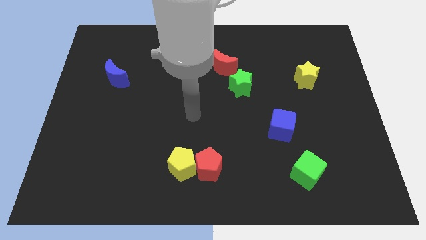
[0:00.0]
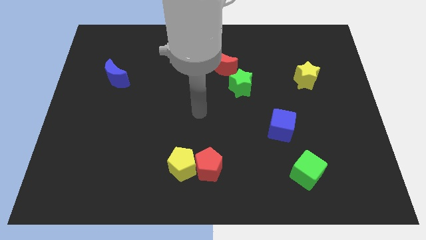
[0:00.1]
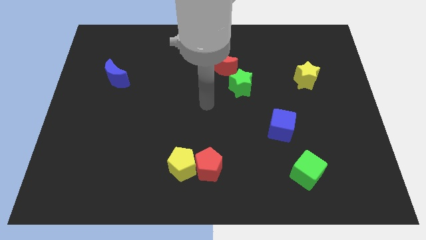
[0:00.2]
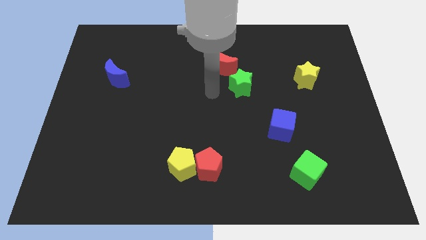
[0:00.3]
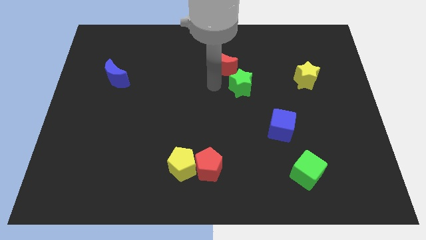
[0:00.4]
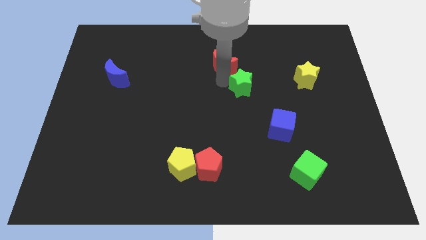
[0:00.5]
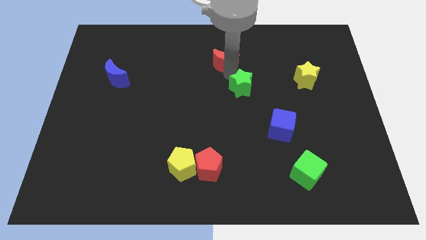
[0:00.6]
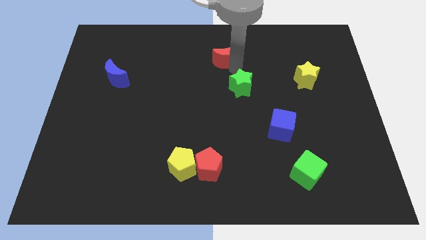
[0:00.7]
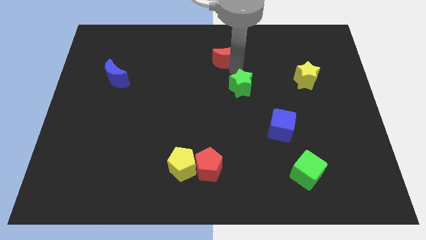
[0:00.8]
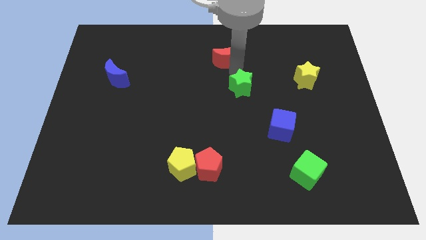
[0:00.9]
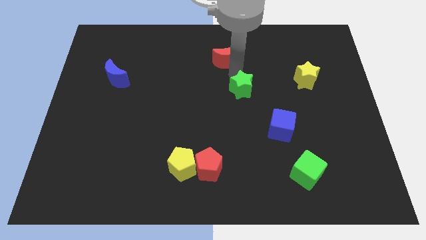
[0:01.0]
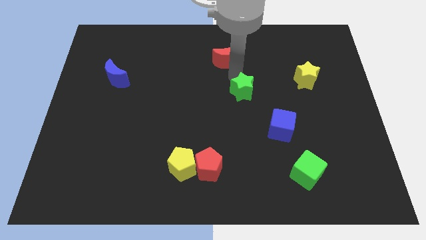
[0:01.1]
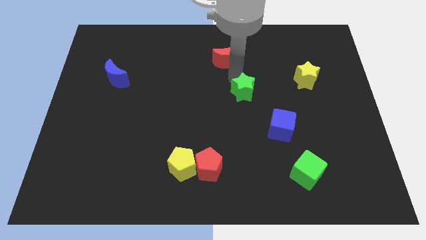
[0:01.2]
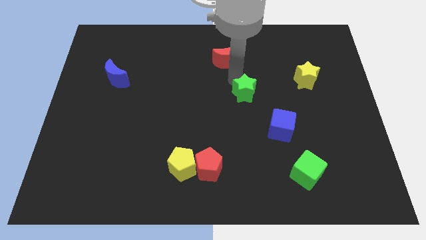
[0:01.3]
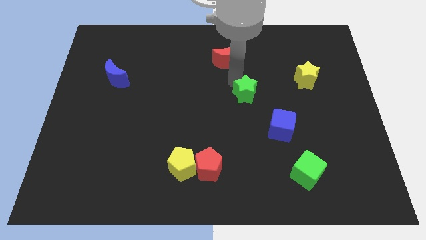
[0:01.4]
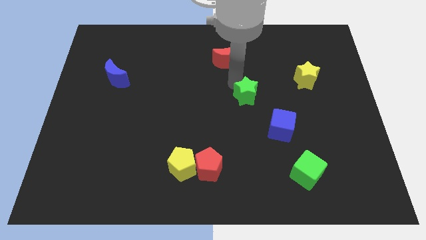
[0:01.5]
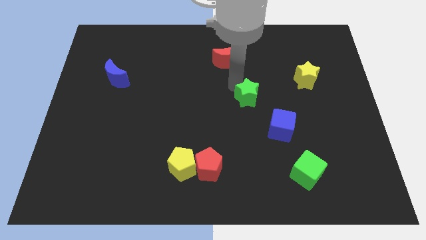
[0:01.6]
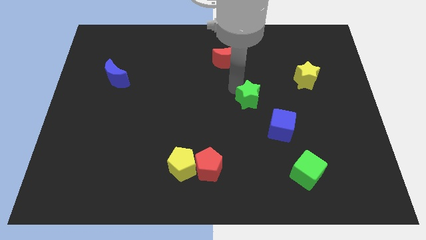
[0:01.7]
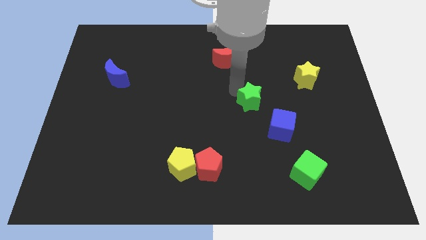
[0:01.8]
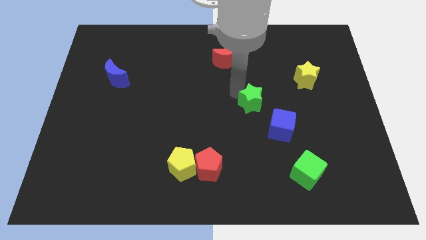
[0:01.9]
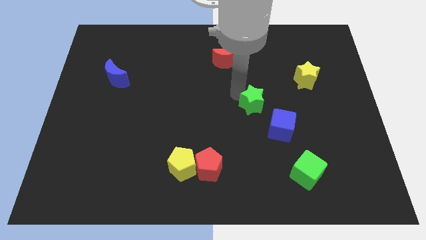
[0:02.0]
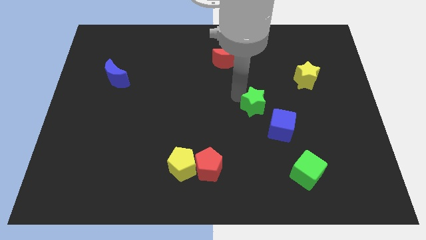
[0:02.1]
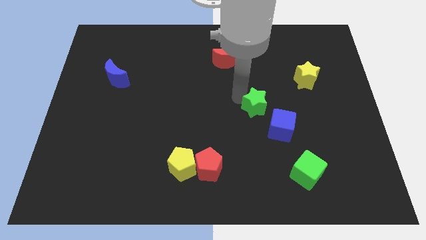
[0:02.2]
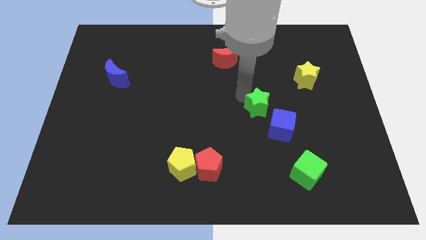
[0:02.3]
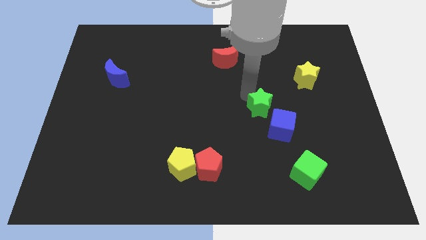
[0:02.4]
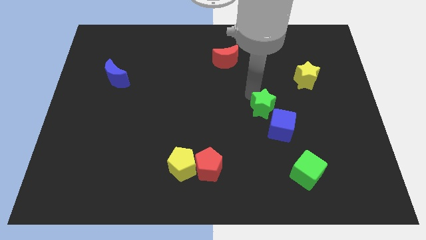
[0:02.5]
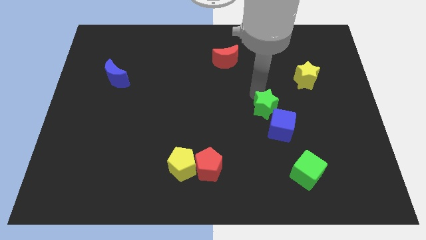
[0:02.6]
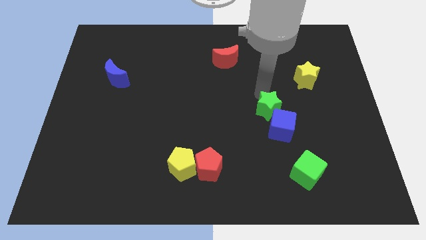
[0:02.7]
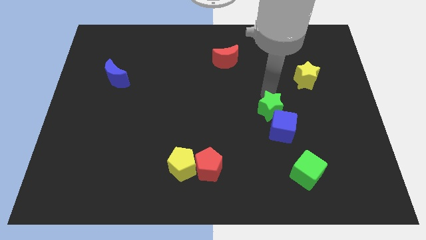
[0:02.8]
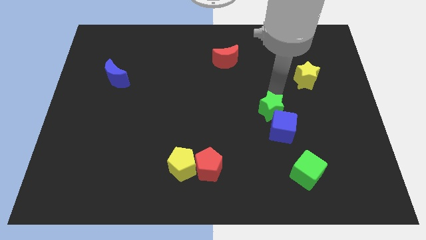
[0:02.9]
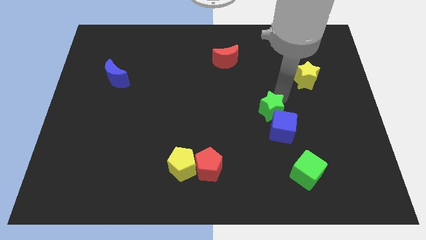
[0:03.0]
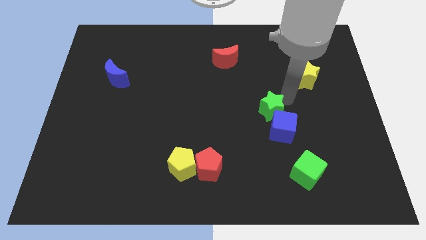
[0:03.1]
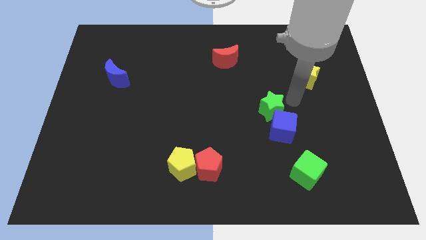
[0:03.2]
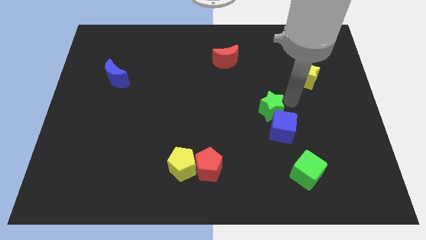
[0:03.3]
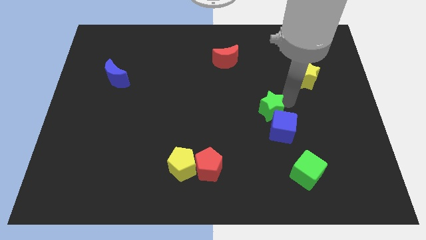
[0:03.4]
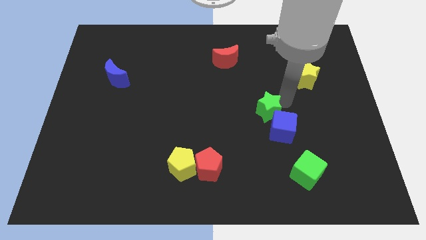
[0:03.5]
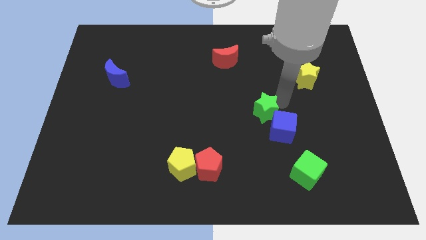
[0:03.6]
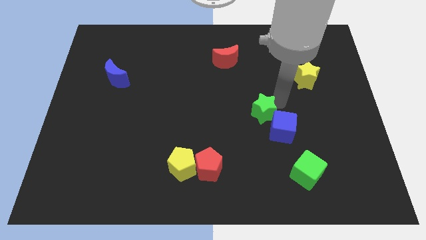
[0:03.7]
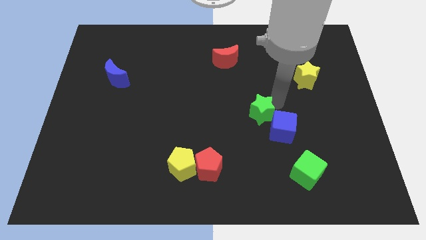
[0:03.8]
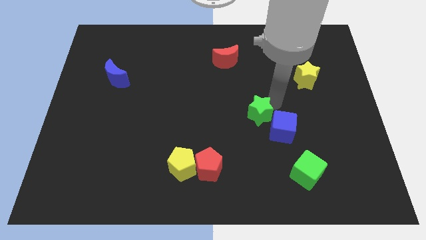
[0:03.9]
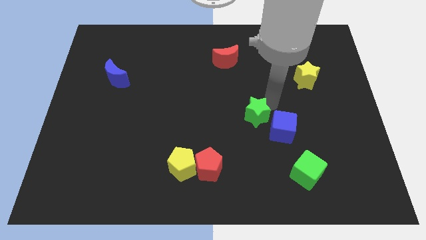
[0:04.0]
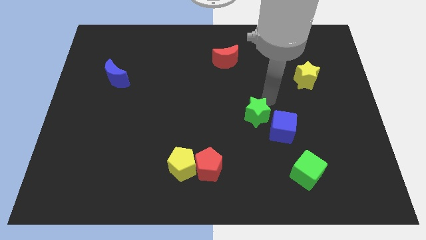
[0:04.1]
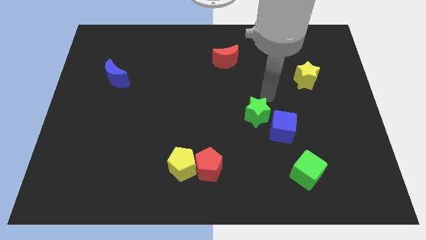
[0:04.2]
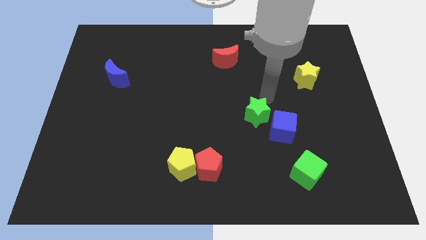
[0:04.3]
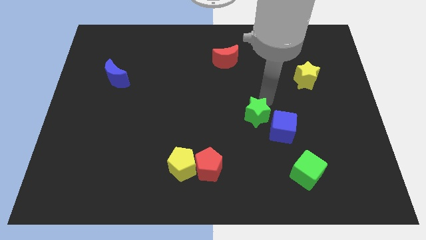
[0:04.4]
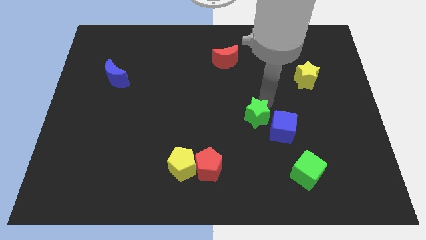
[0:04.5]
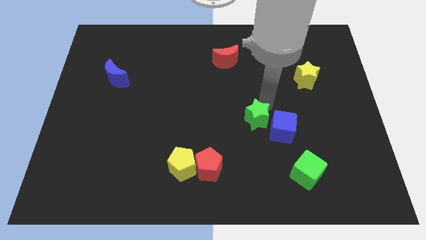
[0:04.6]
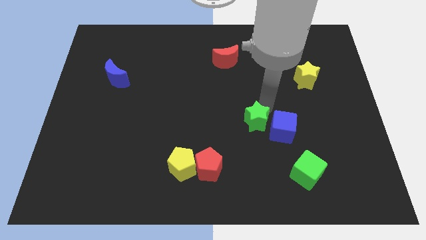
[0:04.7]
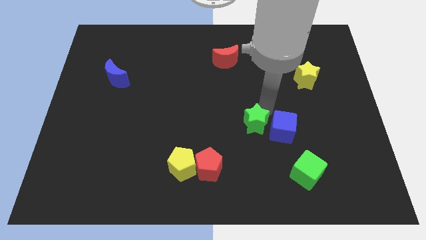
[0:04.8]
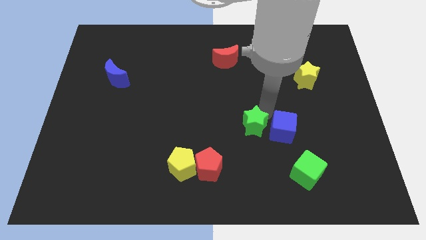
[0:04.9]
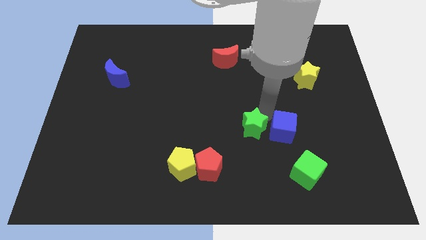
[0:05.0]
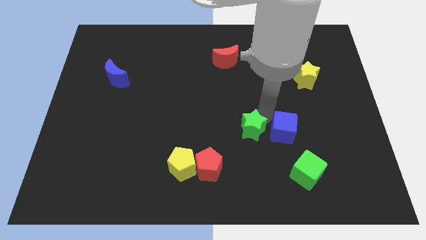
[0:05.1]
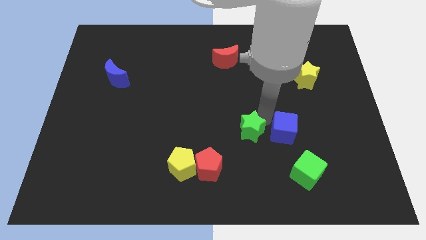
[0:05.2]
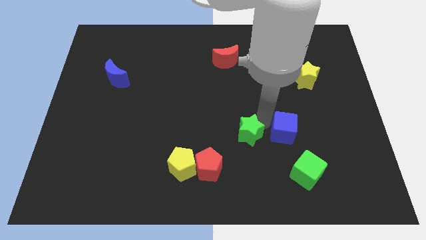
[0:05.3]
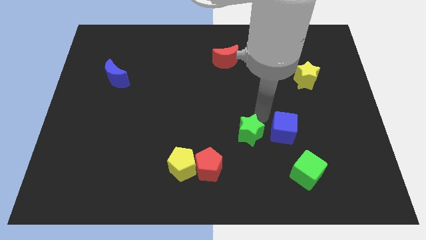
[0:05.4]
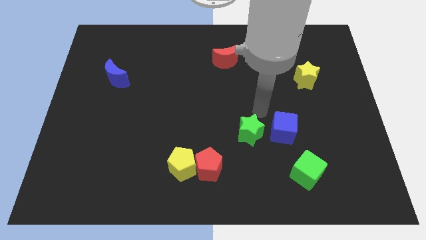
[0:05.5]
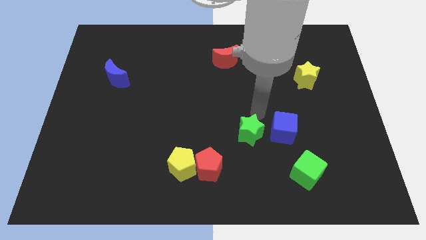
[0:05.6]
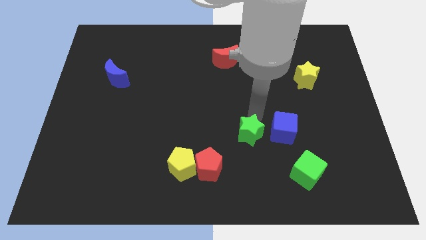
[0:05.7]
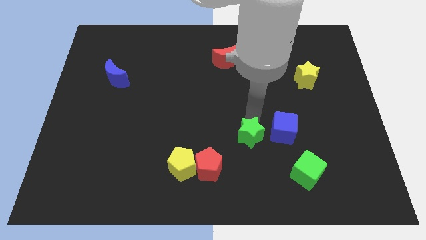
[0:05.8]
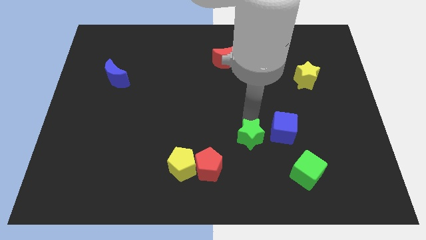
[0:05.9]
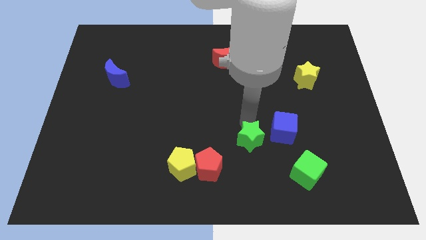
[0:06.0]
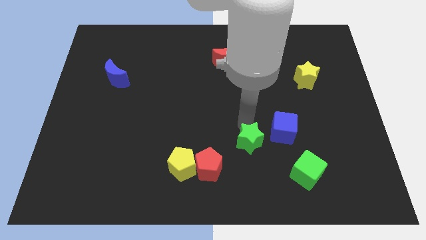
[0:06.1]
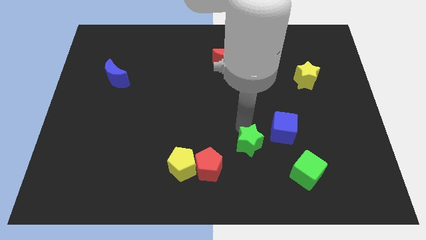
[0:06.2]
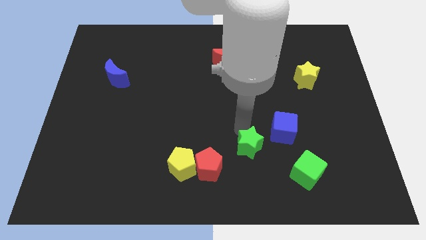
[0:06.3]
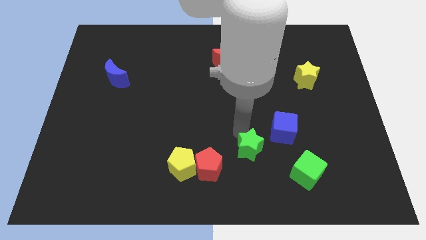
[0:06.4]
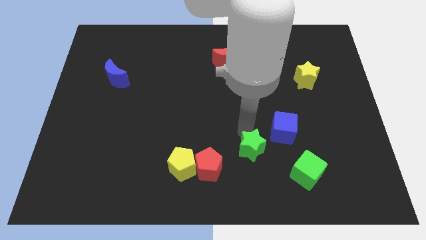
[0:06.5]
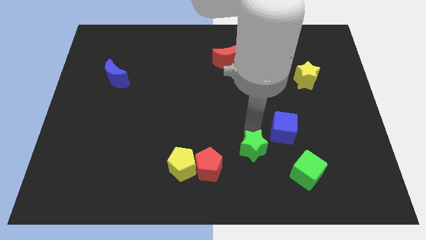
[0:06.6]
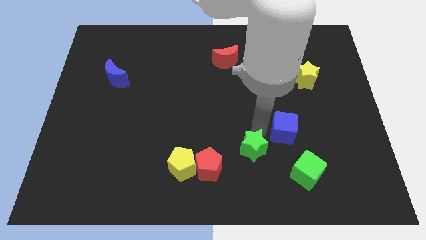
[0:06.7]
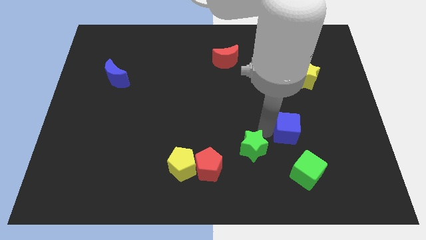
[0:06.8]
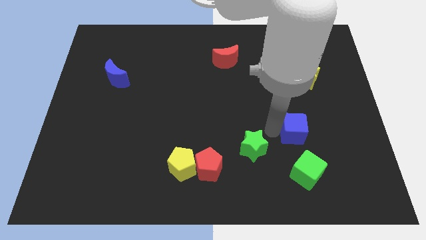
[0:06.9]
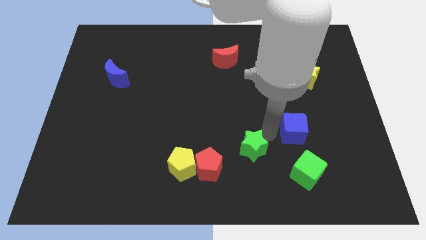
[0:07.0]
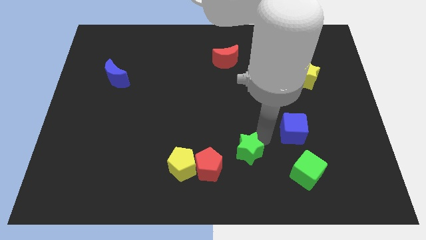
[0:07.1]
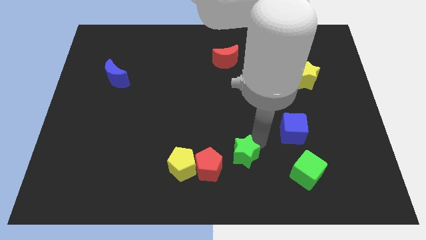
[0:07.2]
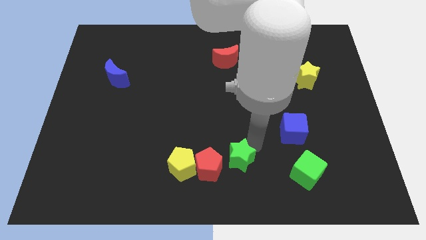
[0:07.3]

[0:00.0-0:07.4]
slide the green star to the bottom

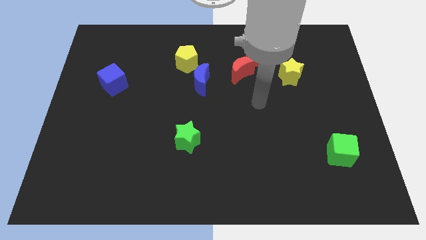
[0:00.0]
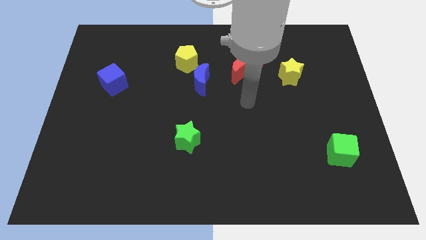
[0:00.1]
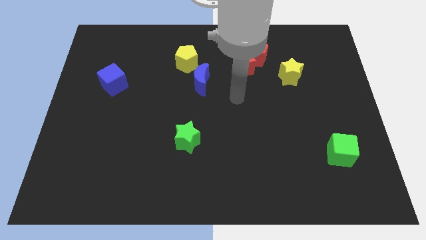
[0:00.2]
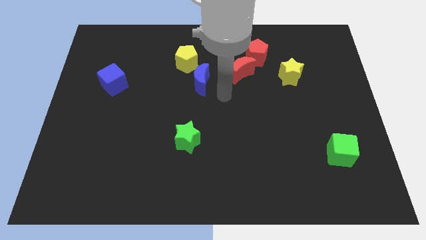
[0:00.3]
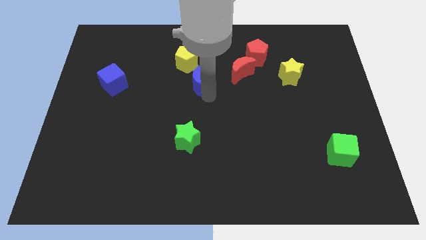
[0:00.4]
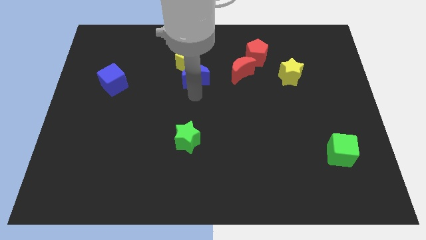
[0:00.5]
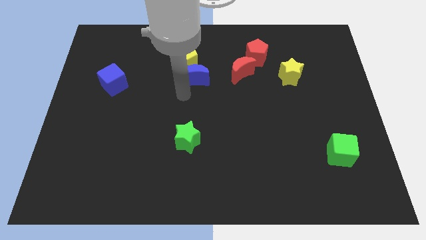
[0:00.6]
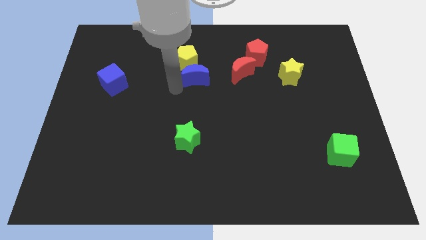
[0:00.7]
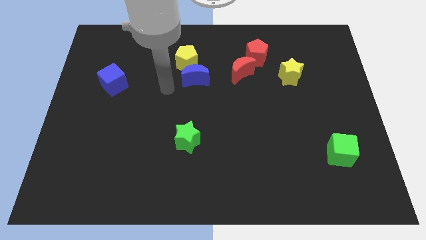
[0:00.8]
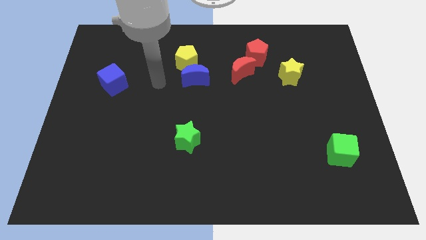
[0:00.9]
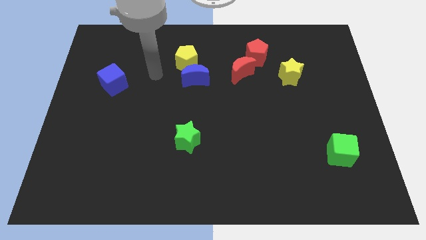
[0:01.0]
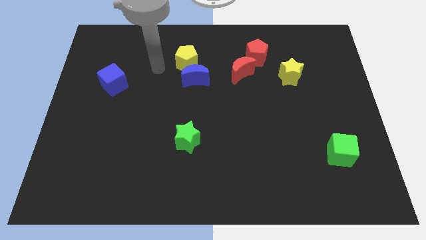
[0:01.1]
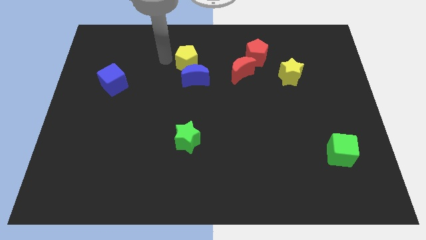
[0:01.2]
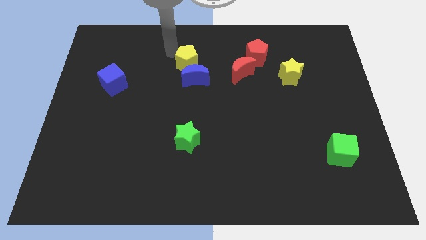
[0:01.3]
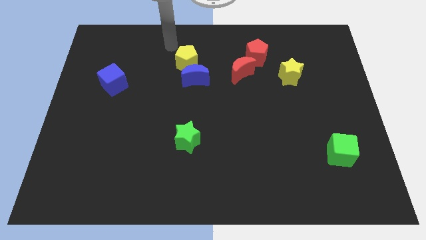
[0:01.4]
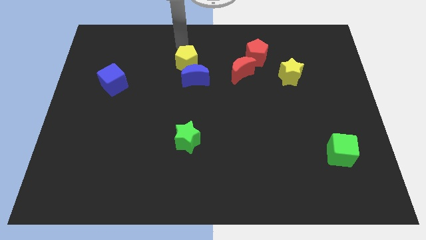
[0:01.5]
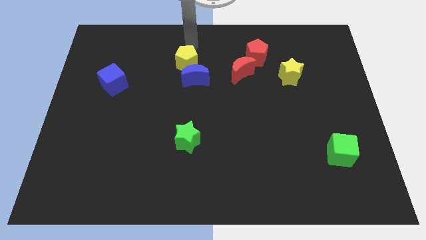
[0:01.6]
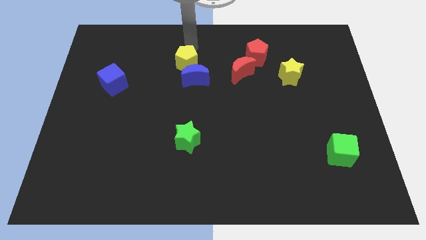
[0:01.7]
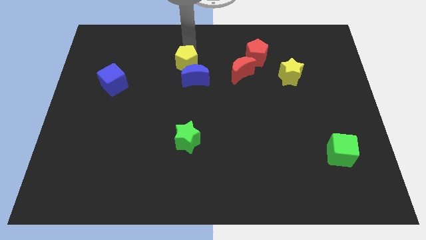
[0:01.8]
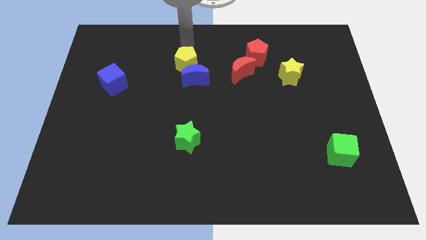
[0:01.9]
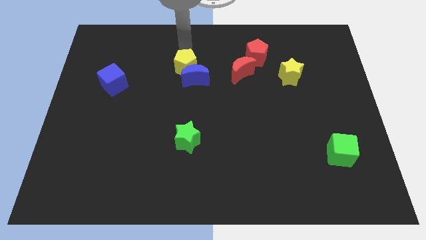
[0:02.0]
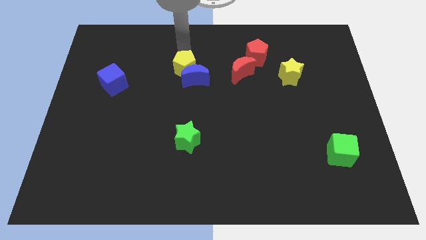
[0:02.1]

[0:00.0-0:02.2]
put the yellow pentagon to the center of the board
